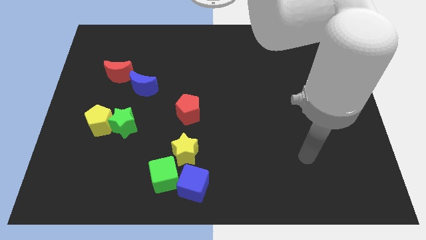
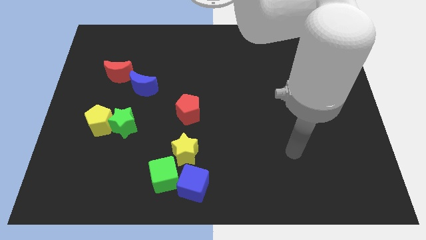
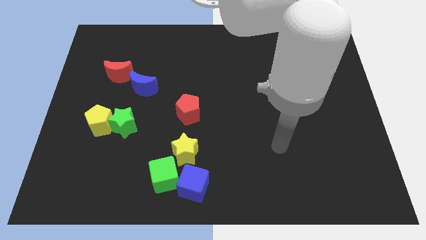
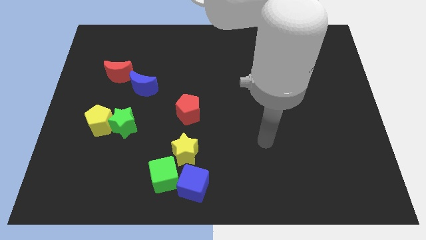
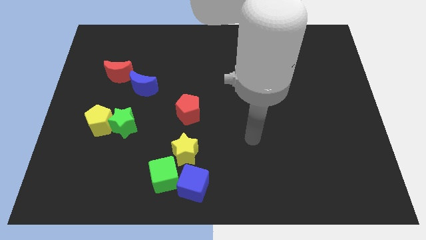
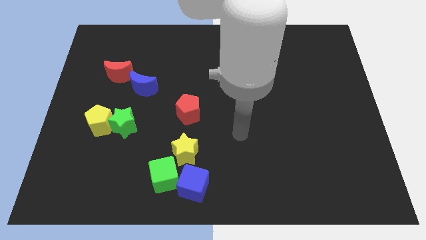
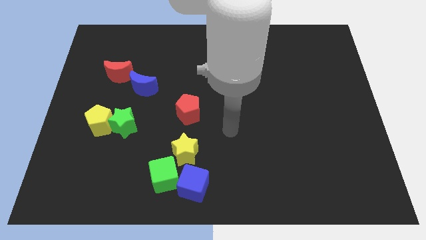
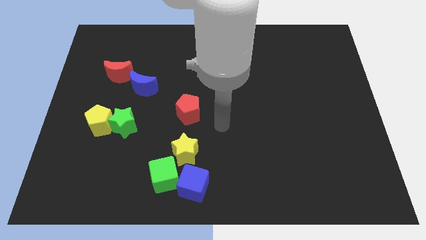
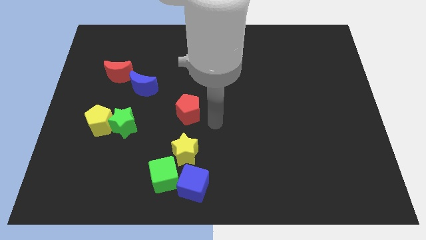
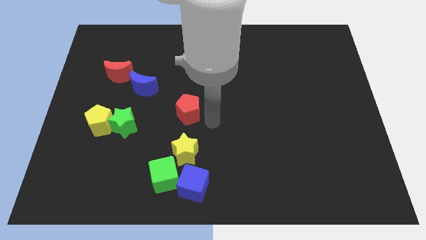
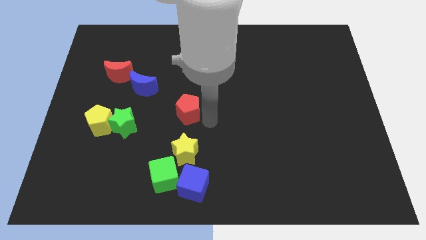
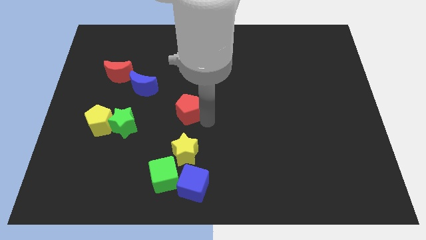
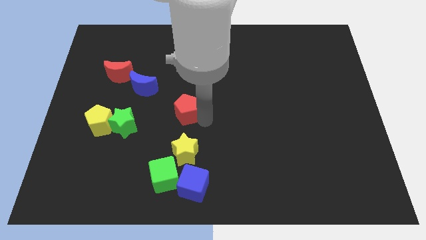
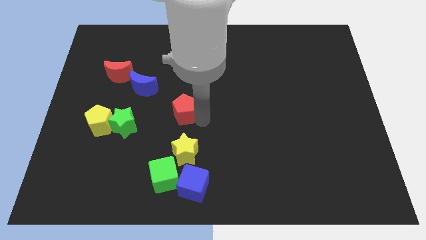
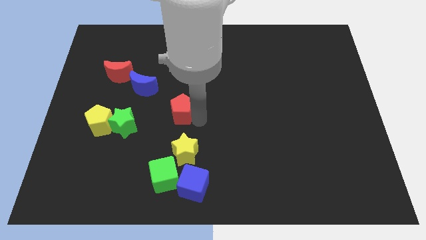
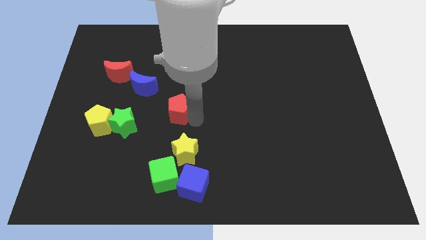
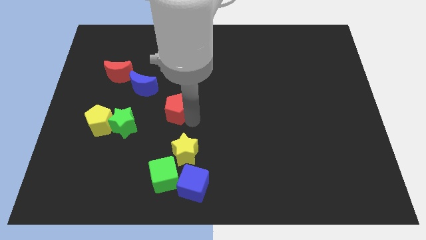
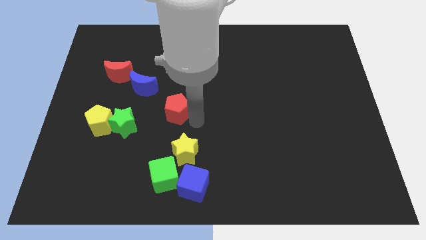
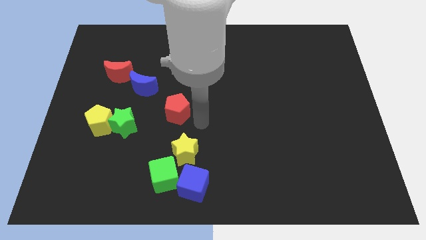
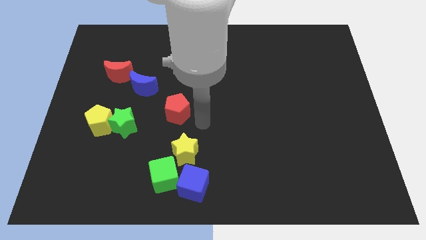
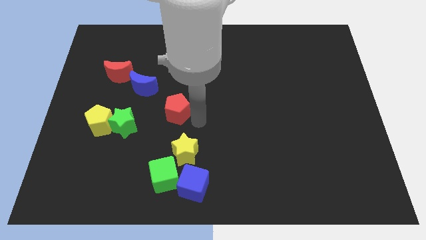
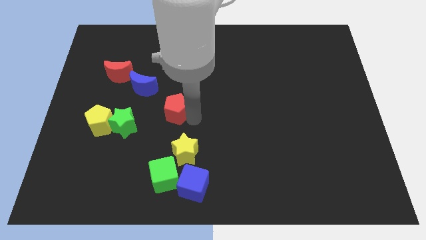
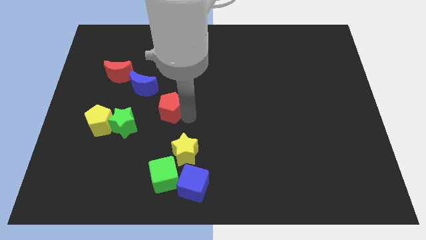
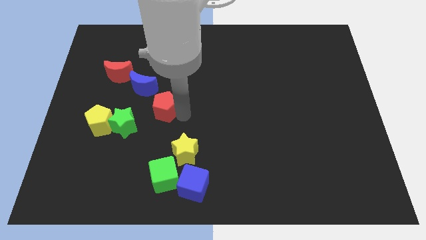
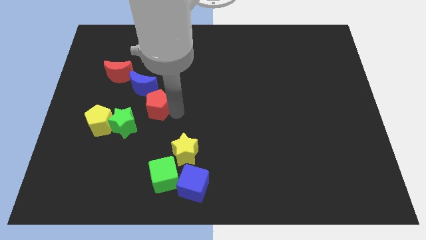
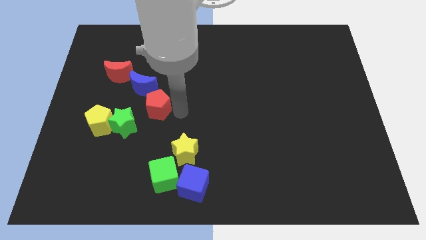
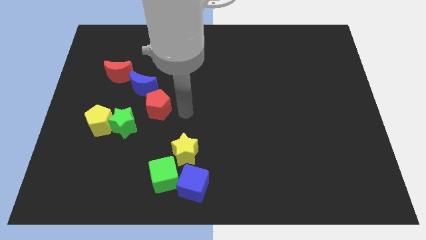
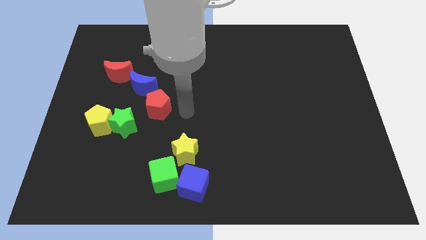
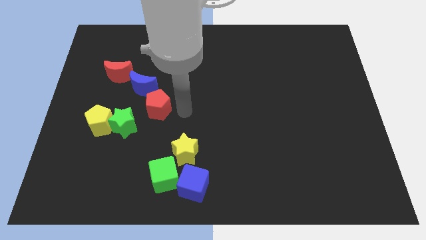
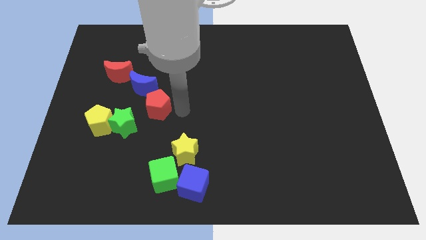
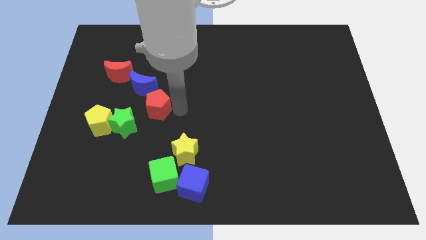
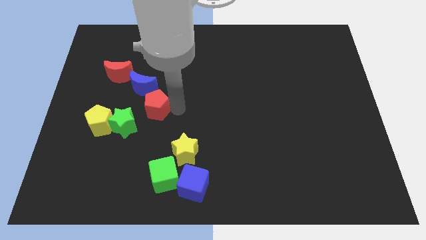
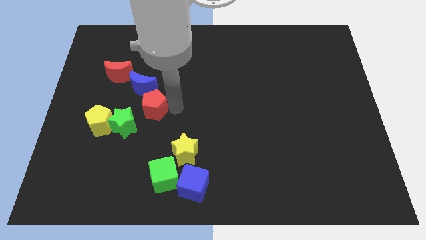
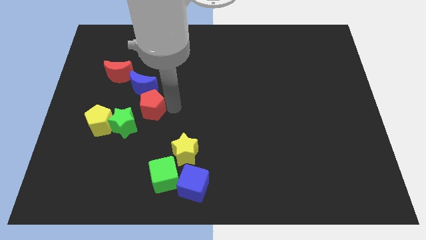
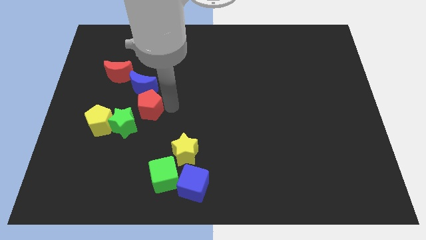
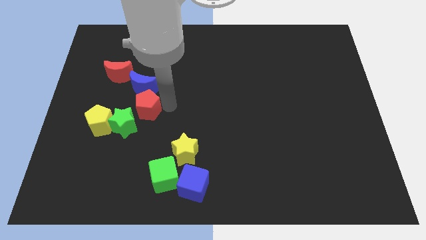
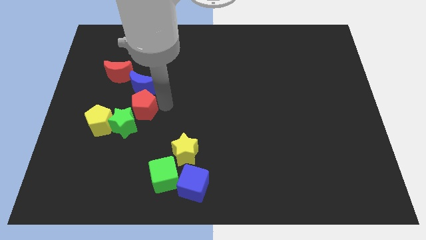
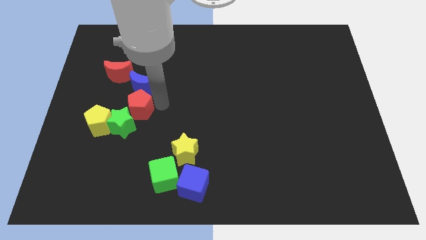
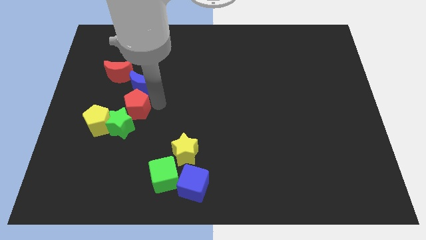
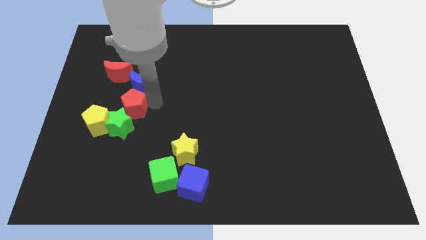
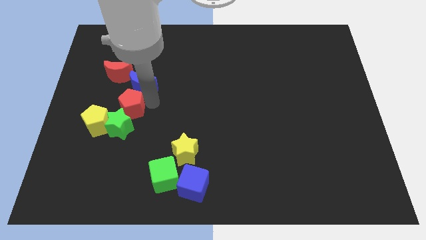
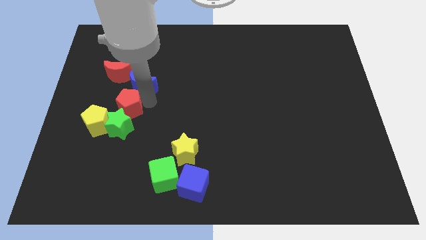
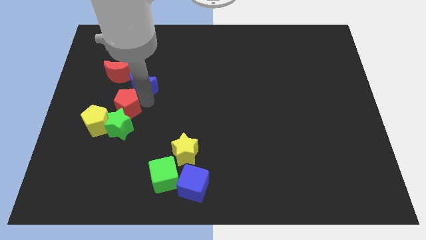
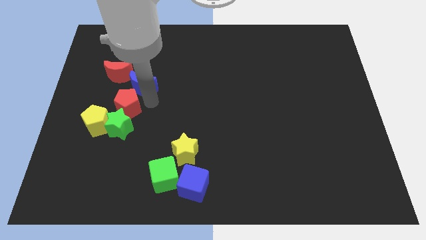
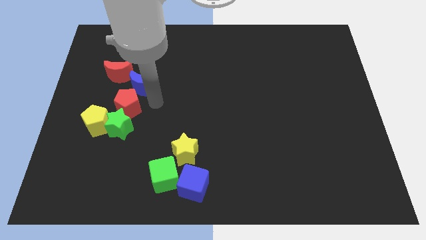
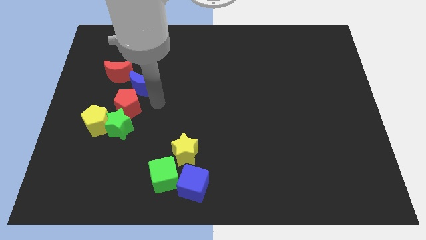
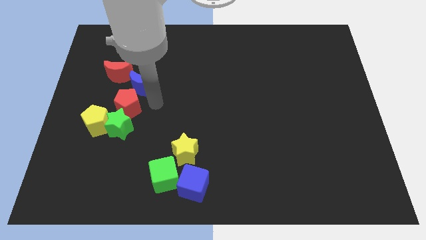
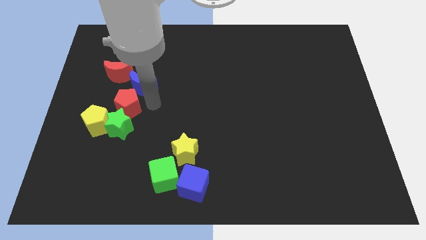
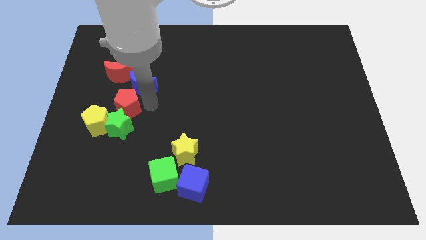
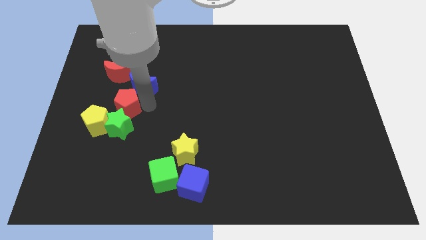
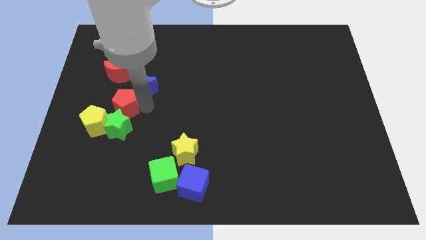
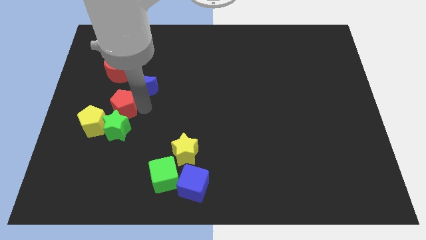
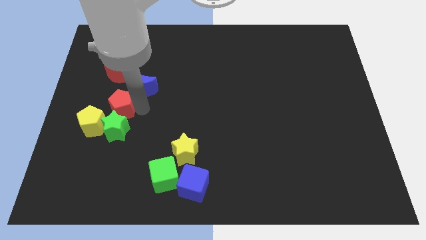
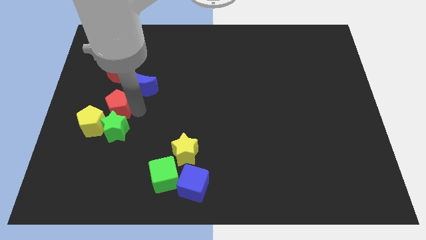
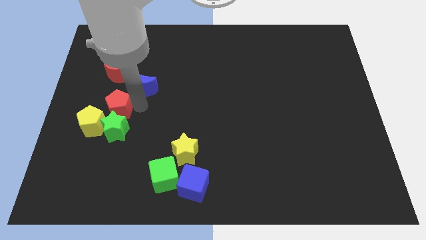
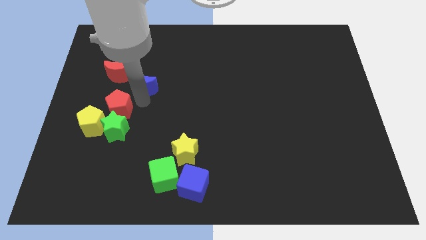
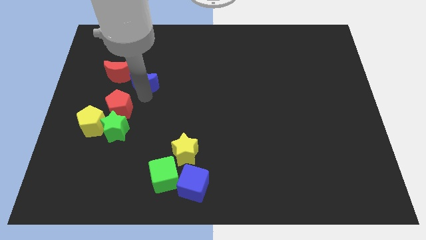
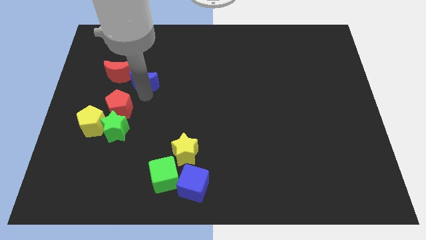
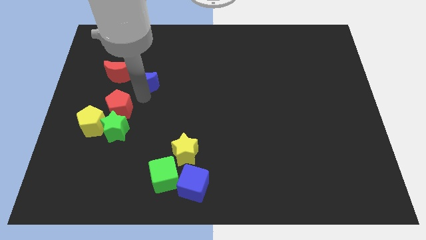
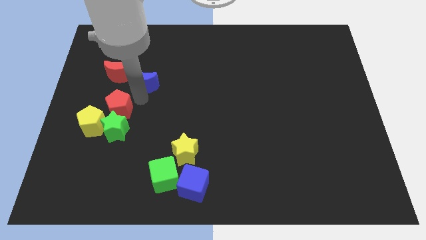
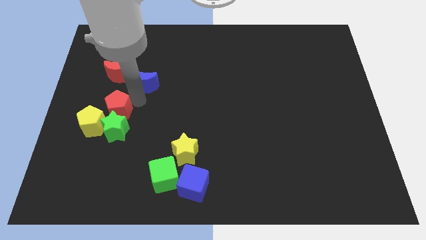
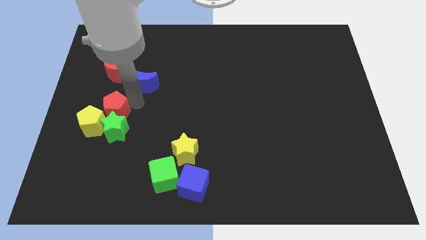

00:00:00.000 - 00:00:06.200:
slide the red pentagon to the yellow pentagon

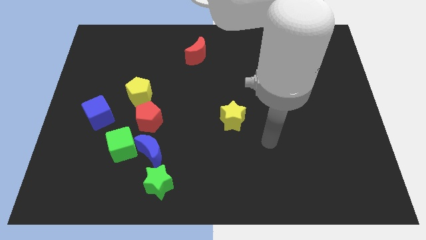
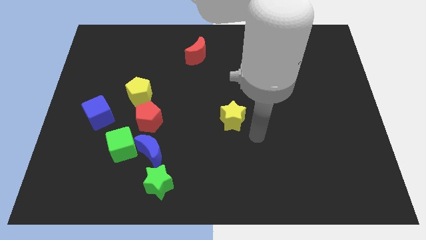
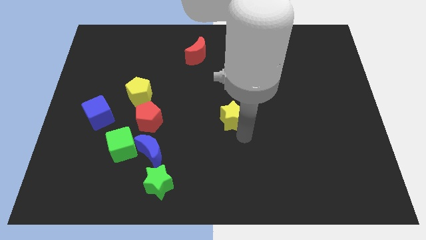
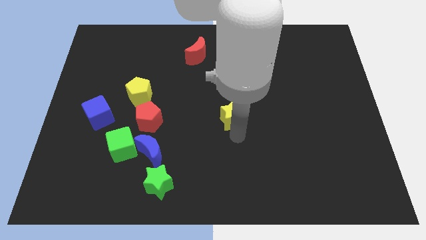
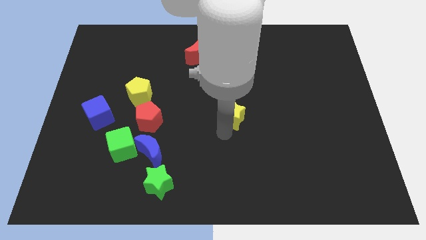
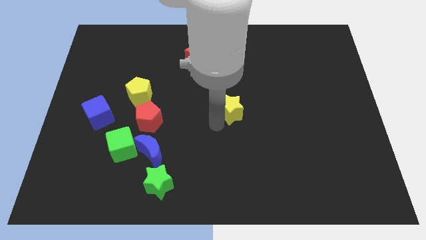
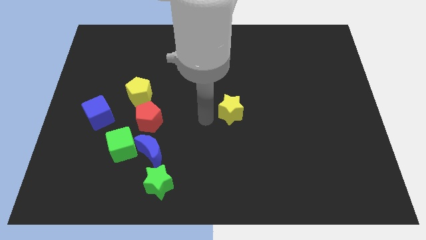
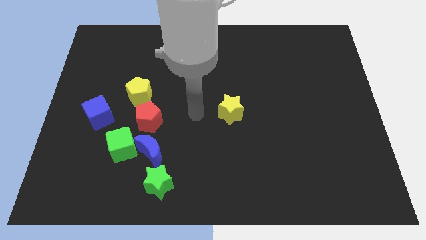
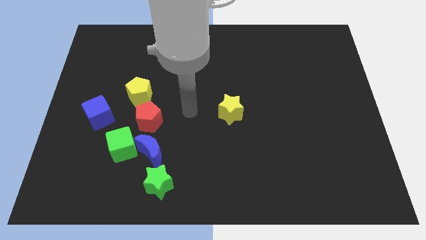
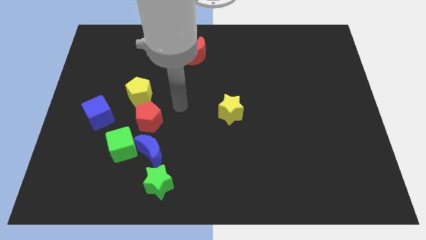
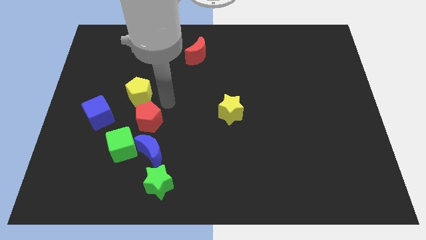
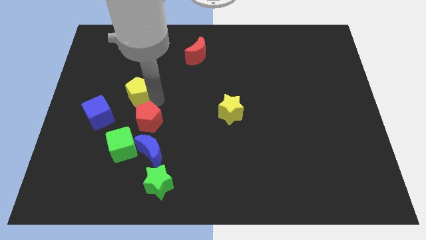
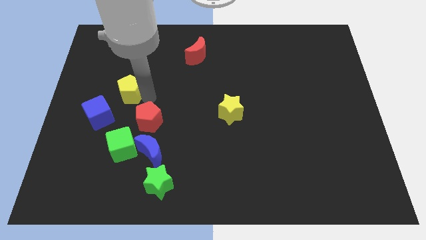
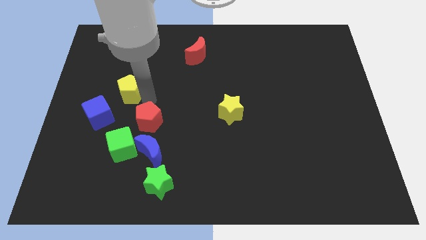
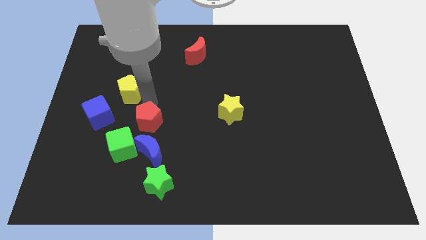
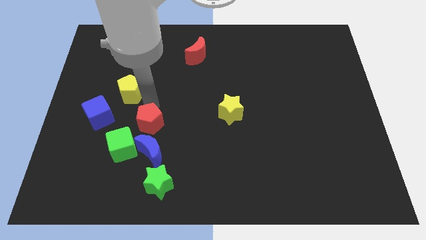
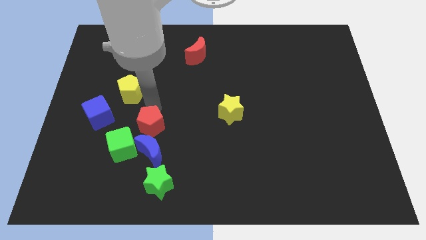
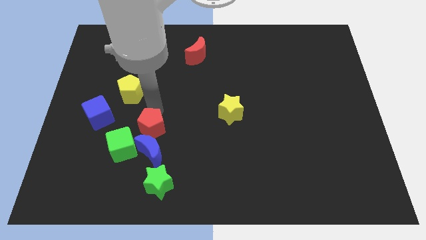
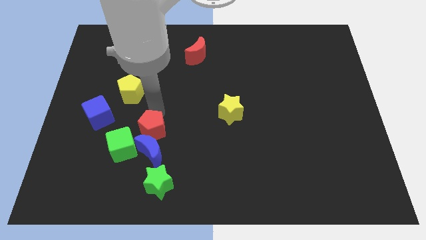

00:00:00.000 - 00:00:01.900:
move the red pentagon towards the blue moon

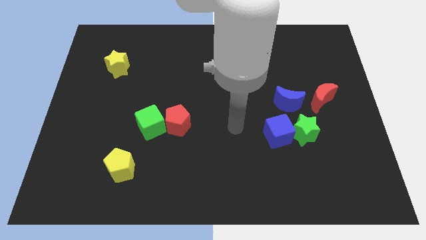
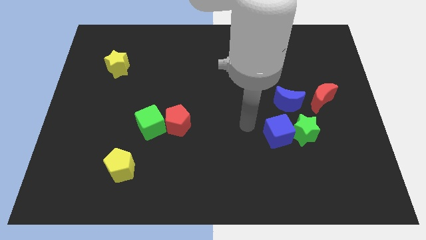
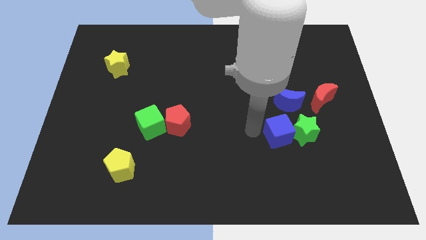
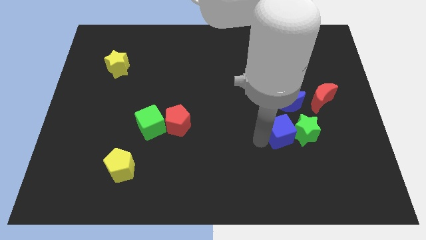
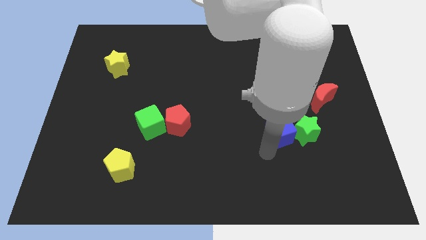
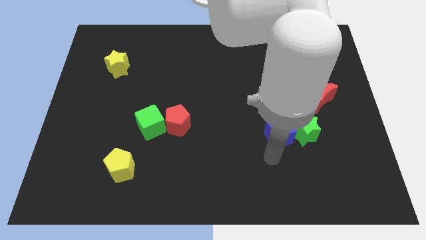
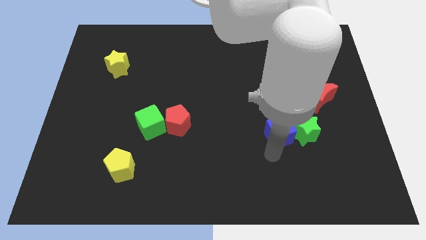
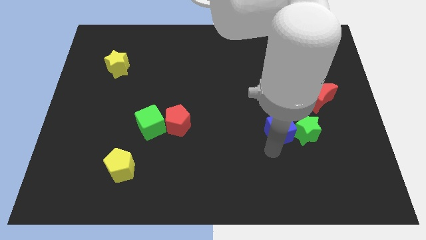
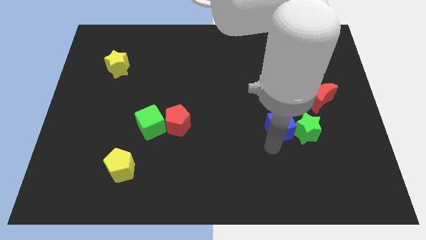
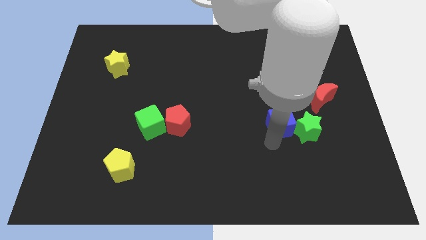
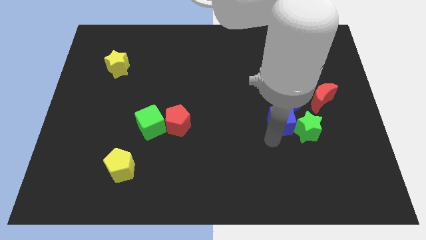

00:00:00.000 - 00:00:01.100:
slide the blue cube close to the blue moon
